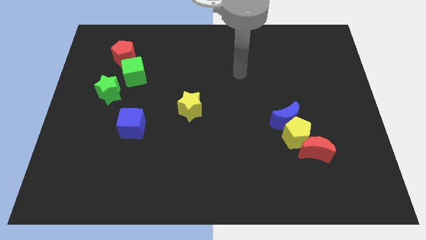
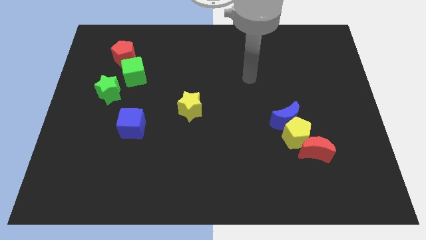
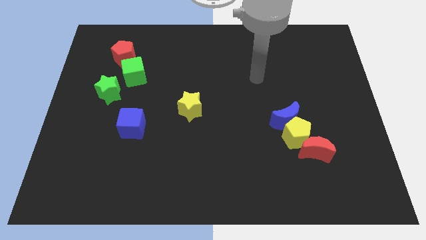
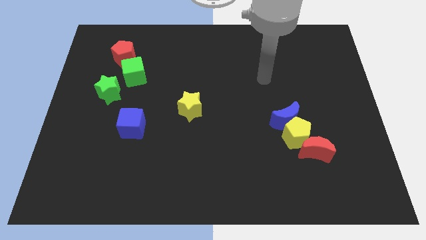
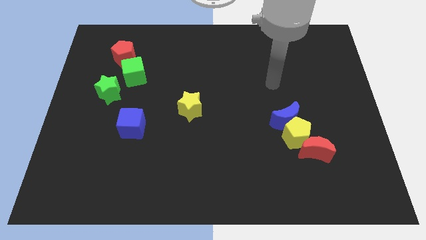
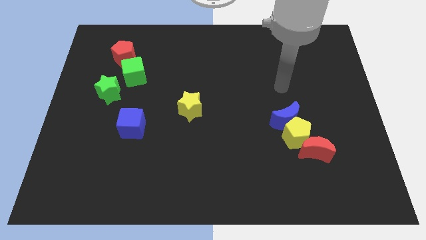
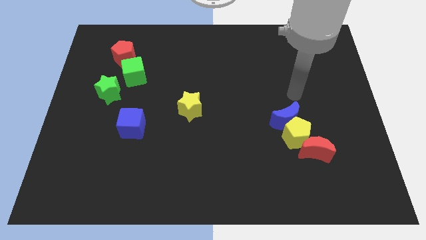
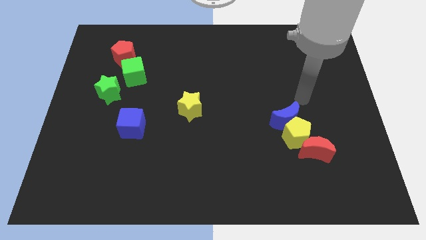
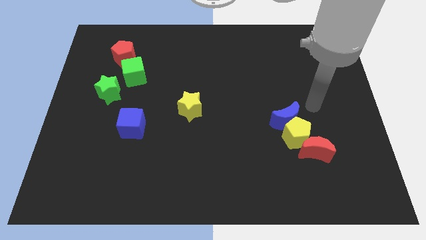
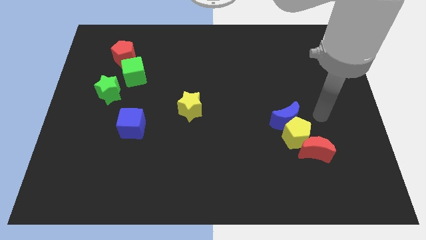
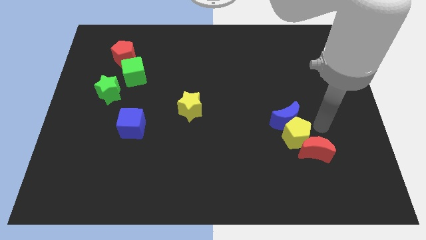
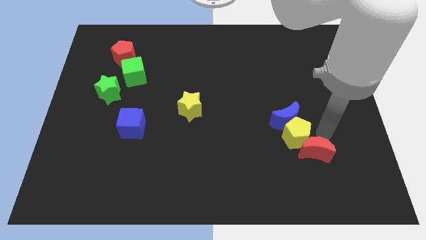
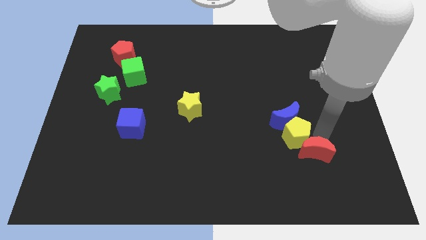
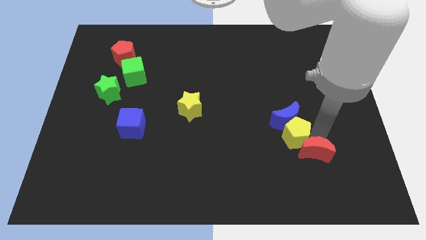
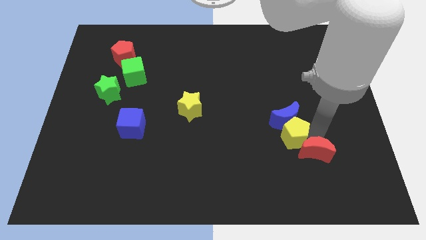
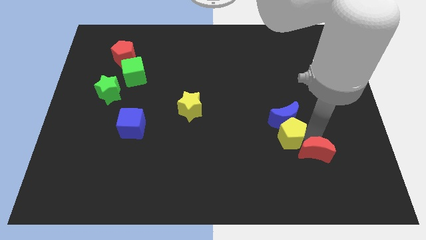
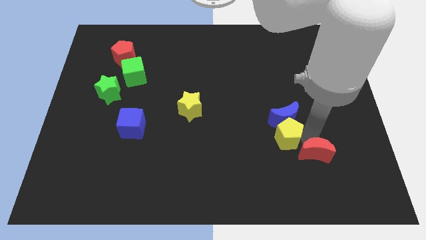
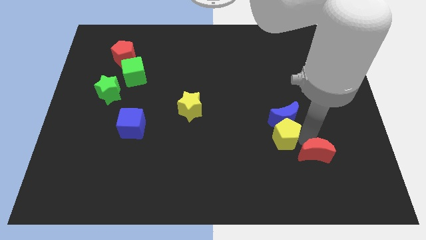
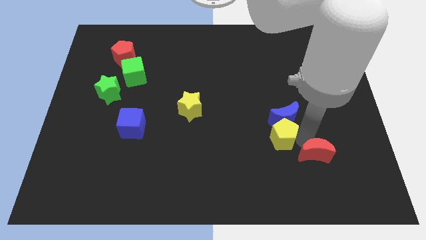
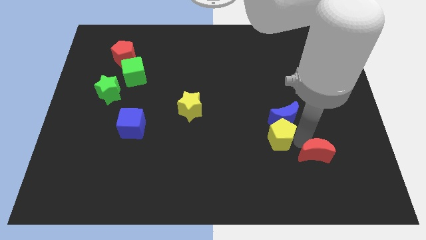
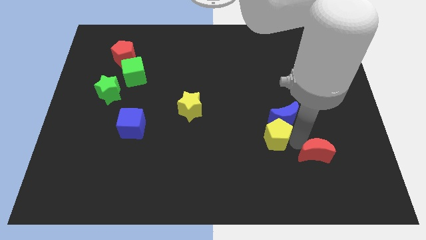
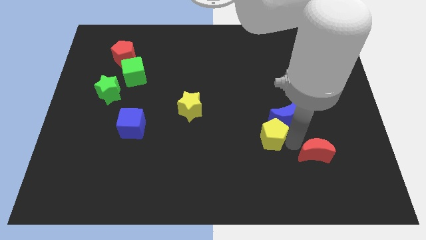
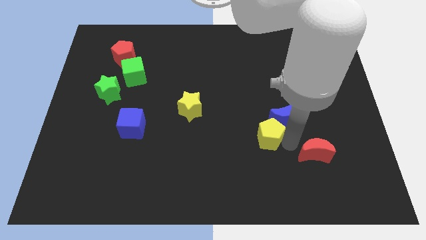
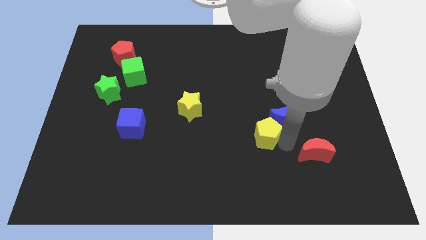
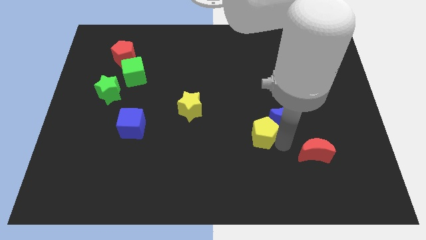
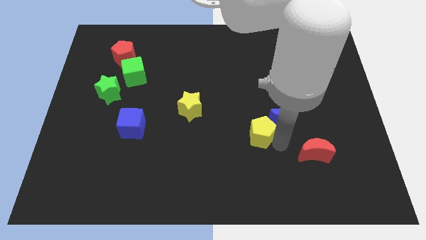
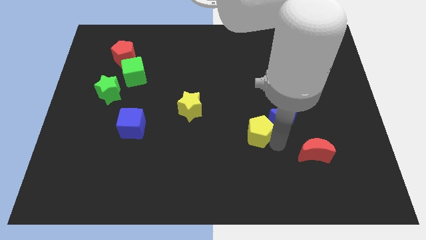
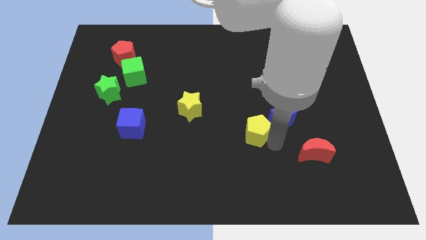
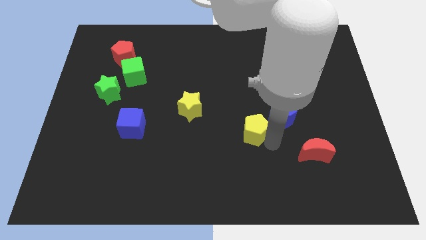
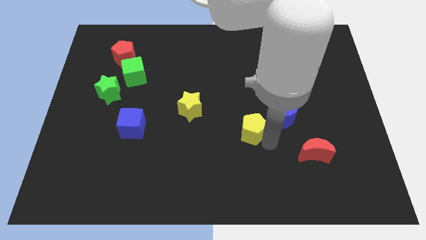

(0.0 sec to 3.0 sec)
move the yellow pentagon away from the blue moon and red moon

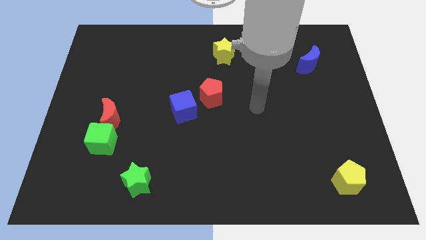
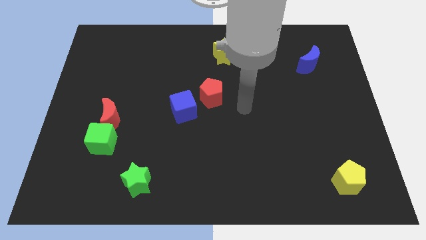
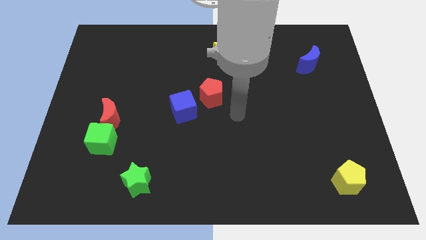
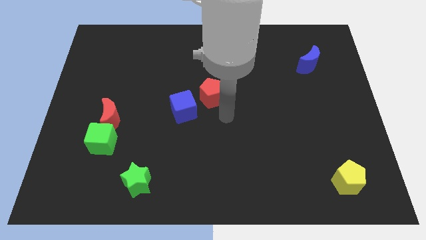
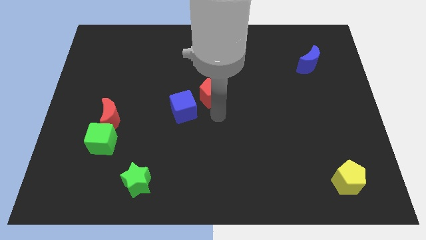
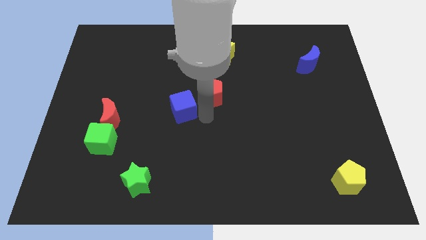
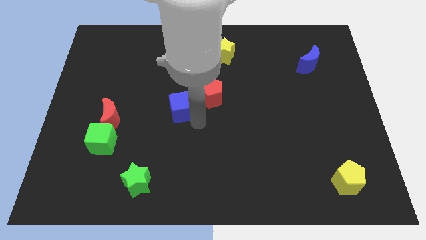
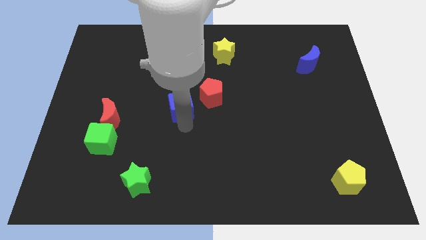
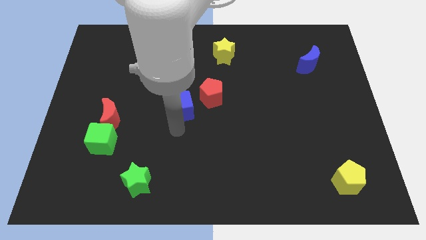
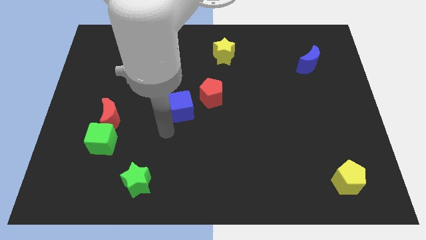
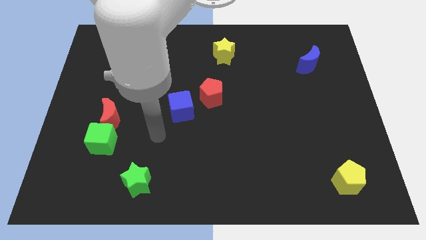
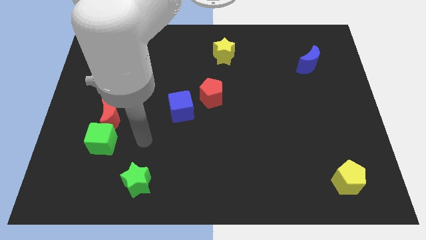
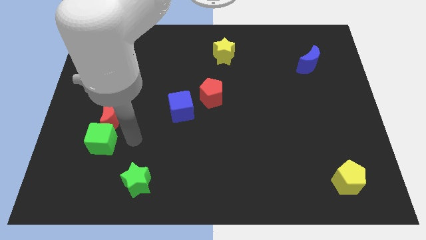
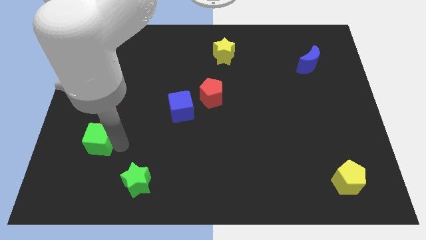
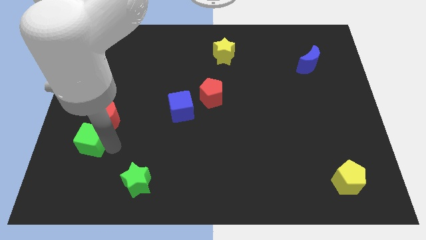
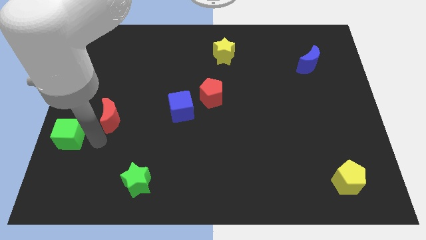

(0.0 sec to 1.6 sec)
separate the red moon from the green cube

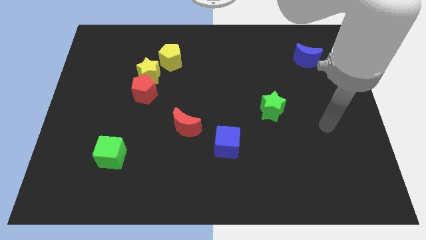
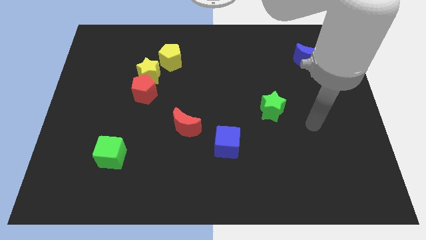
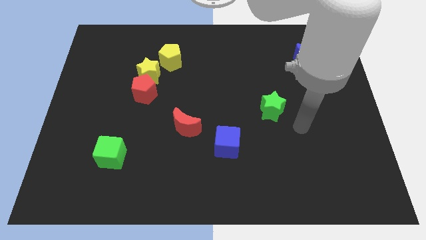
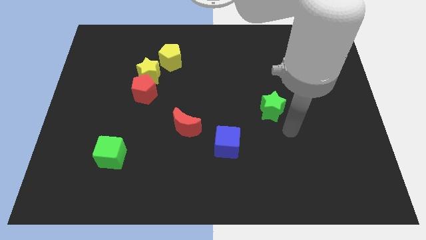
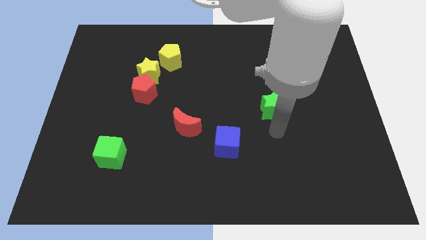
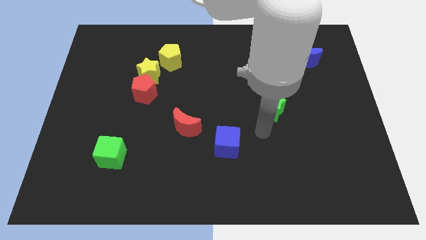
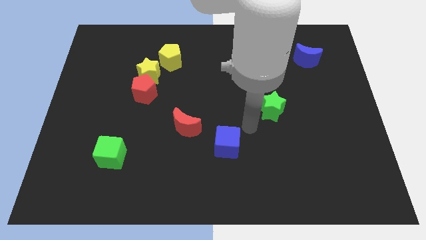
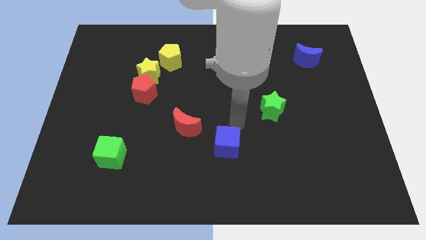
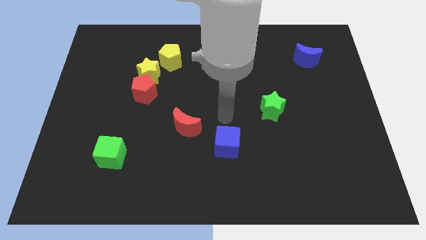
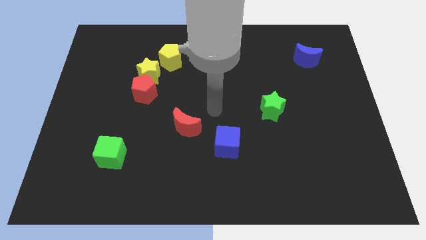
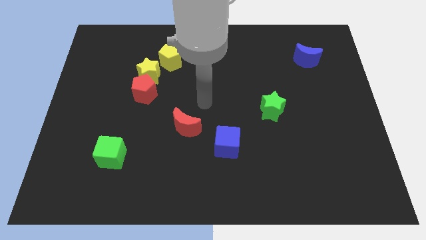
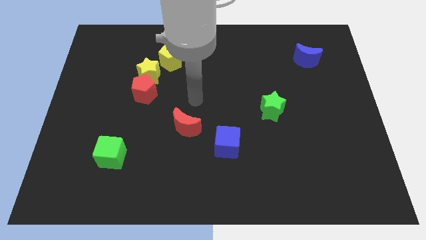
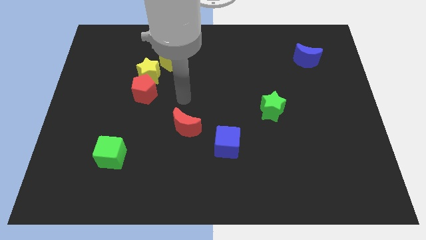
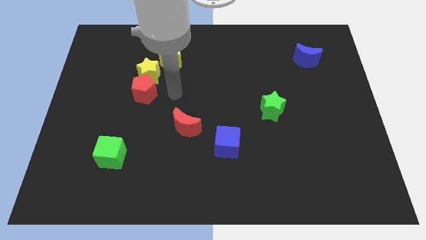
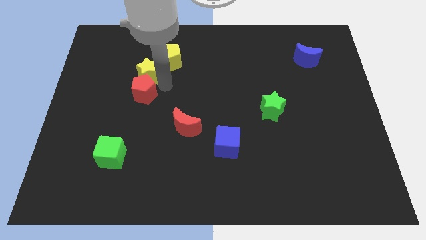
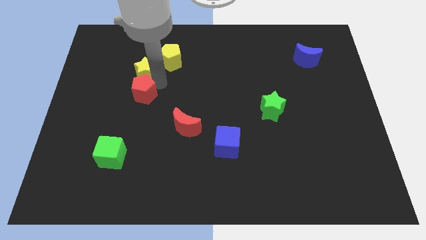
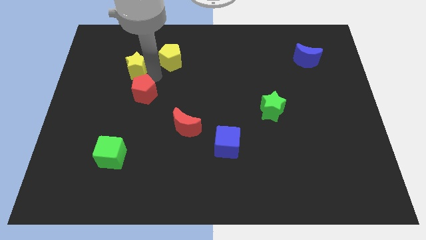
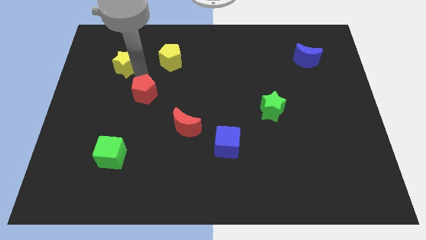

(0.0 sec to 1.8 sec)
separate the red pentagon from the yellow star

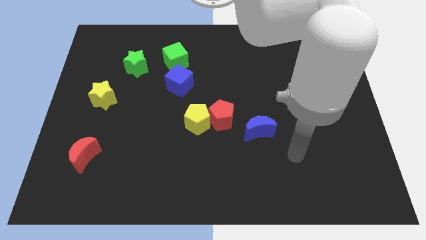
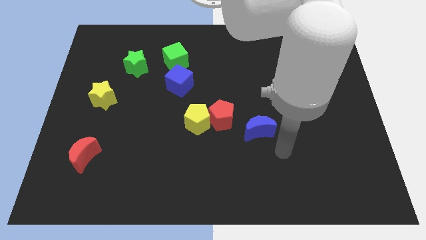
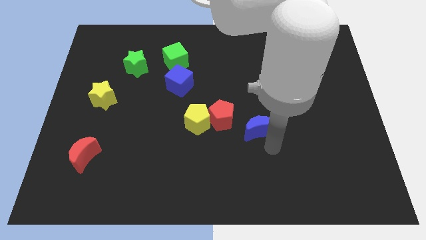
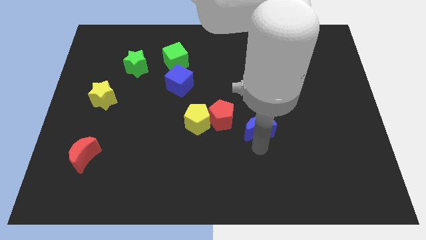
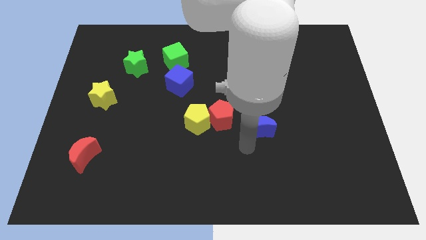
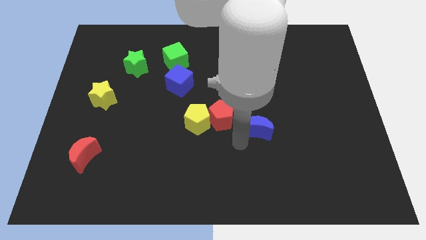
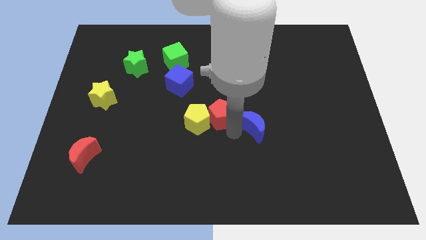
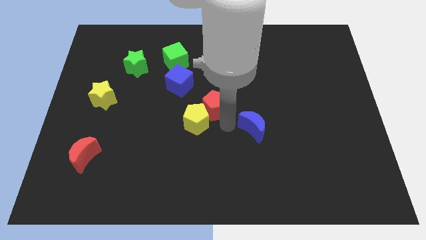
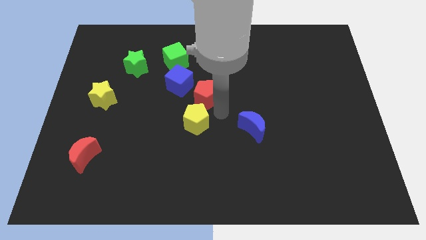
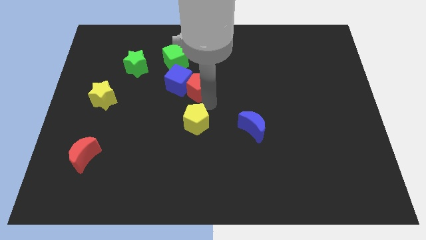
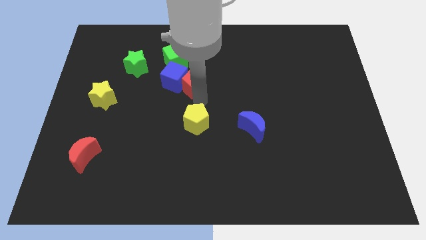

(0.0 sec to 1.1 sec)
separate the yellow pentagon from the red pentagon

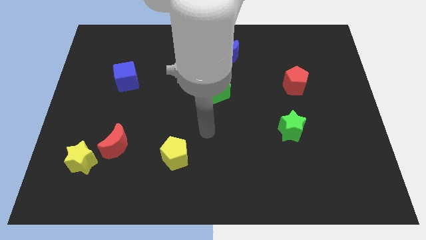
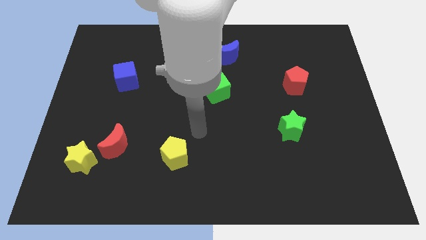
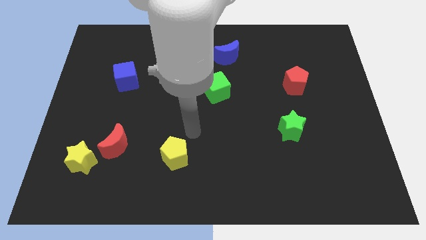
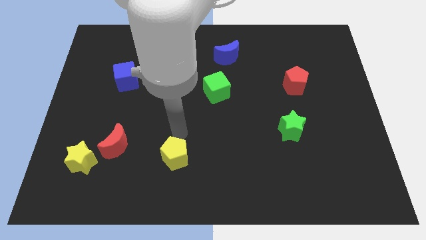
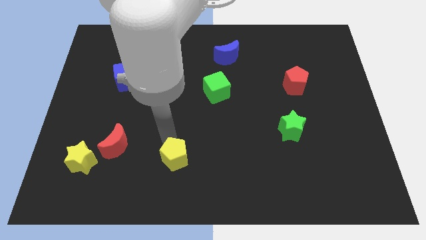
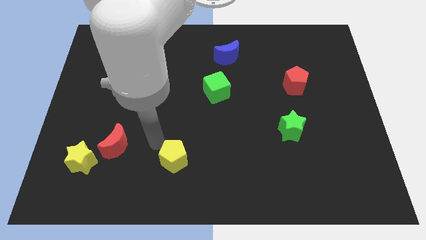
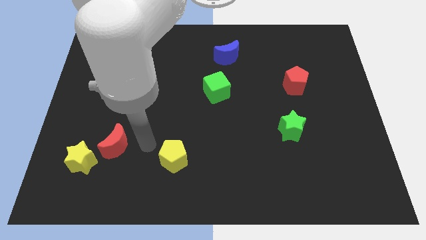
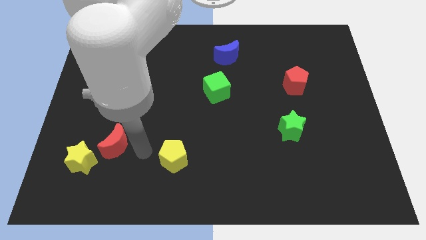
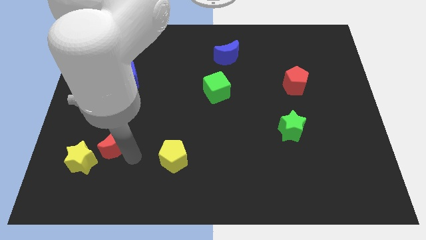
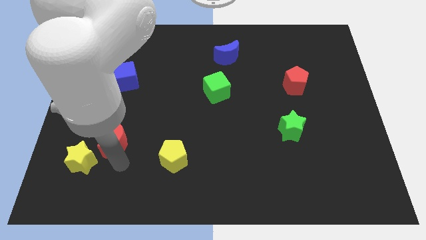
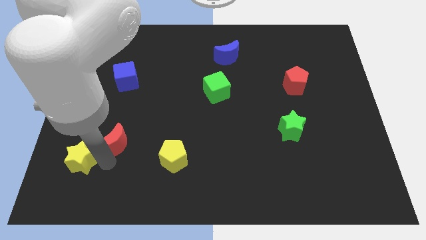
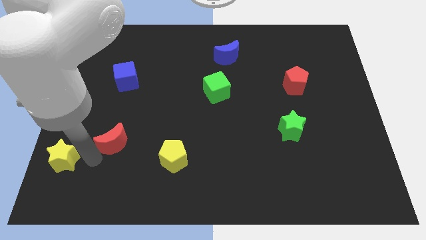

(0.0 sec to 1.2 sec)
move the red moon away from the yellow star

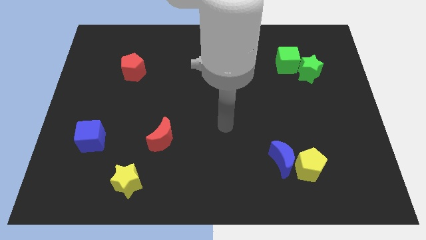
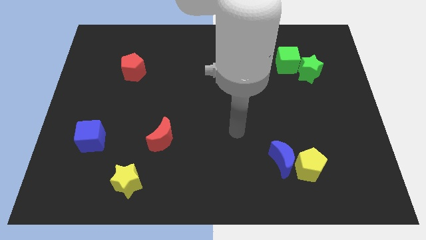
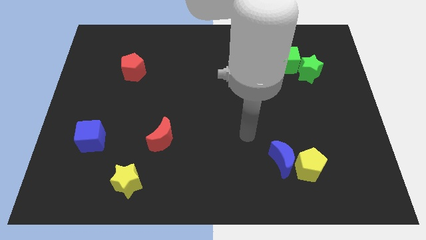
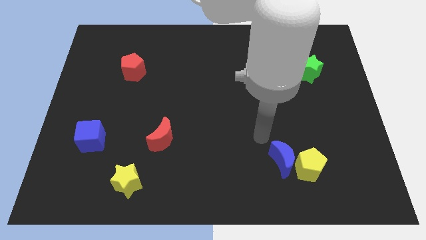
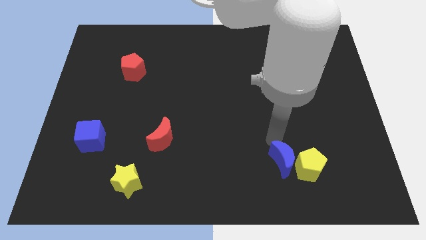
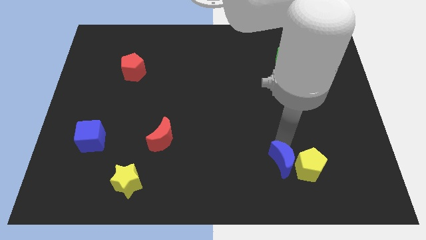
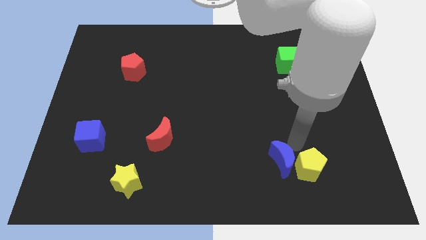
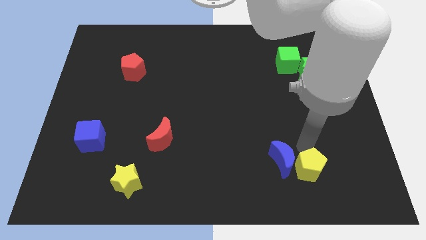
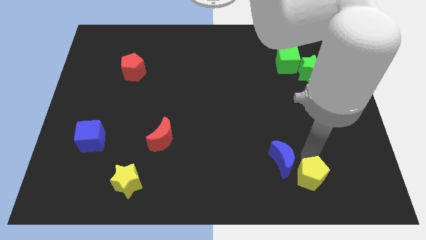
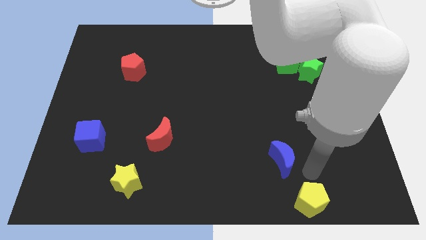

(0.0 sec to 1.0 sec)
move the blue moon away from the yellow pentagon
